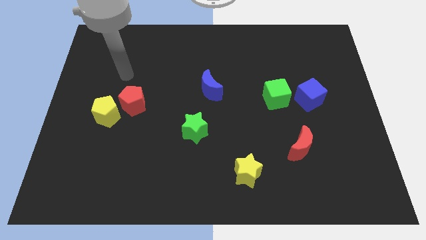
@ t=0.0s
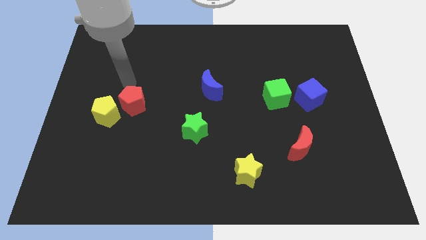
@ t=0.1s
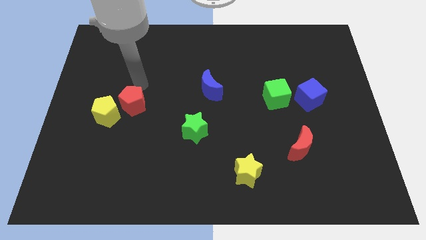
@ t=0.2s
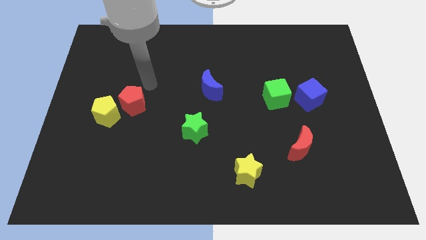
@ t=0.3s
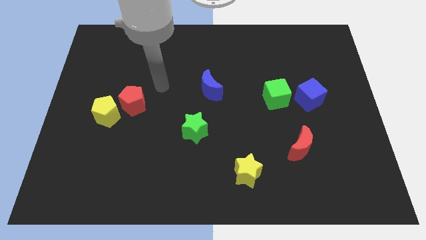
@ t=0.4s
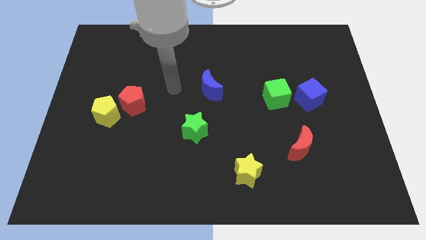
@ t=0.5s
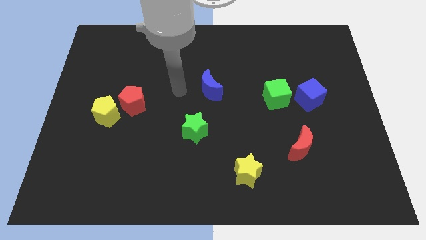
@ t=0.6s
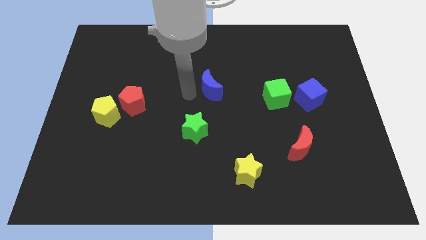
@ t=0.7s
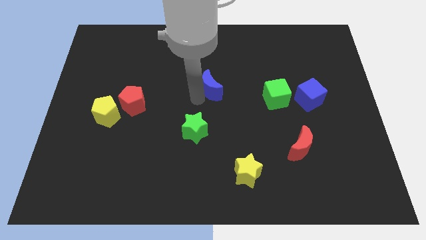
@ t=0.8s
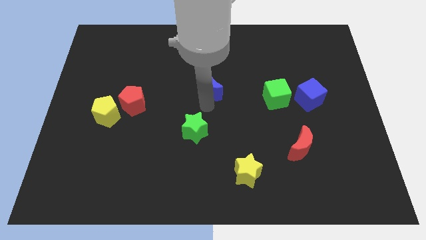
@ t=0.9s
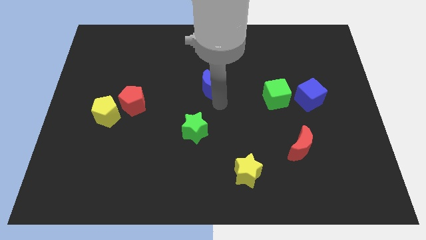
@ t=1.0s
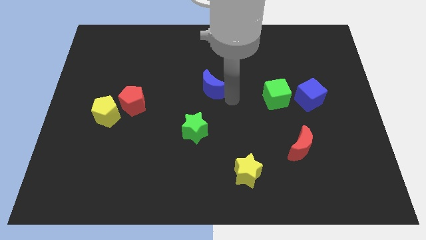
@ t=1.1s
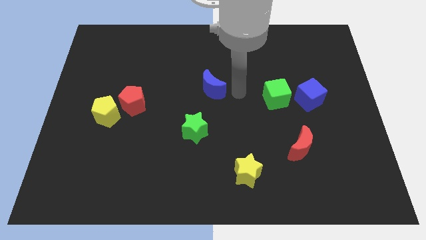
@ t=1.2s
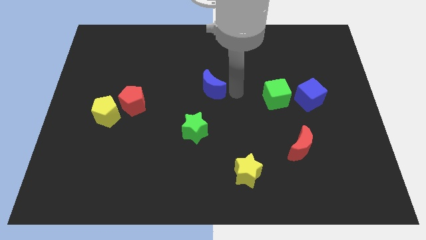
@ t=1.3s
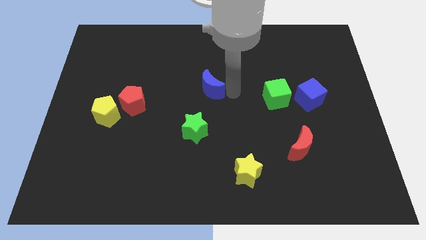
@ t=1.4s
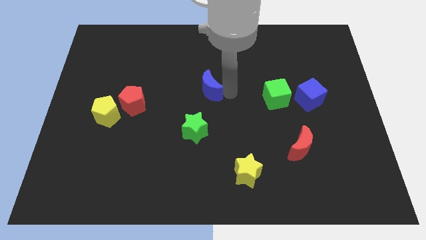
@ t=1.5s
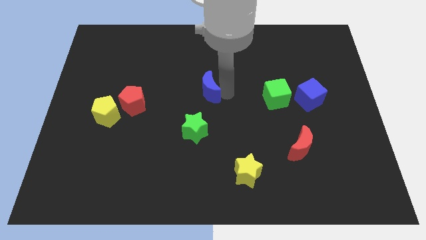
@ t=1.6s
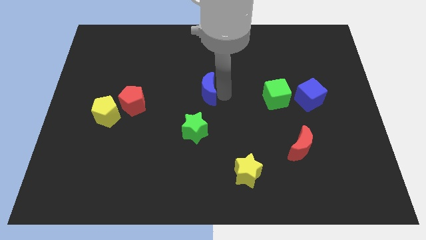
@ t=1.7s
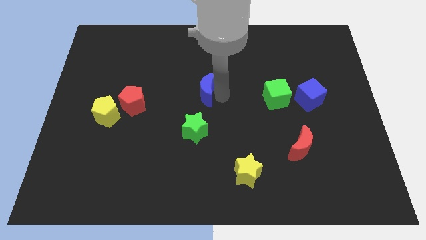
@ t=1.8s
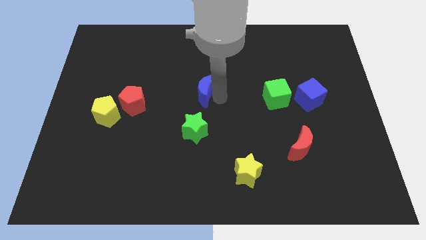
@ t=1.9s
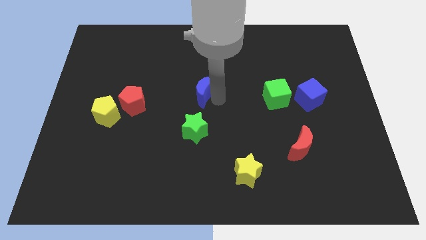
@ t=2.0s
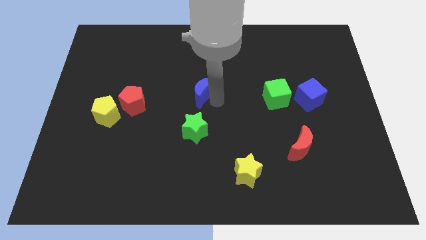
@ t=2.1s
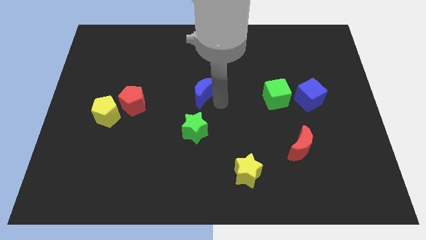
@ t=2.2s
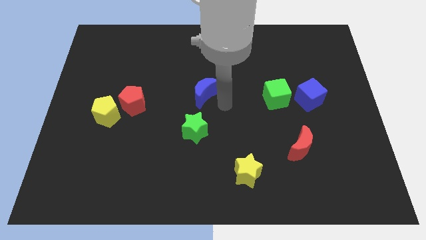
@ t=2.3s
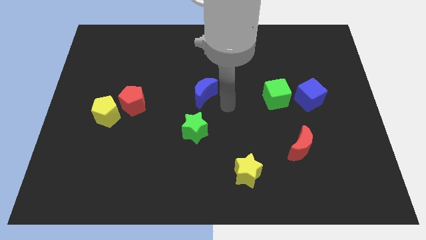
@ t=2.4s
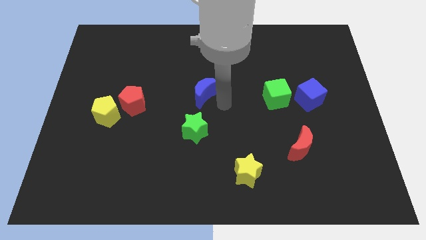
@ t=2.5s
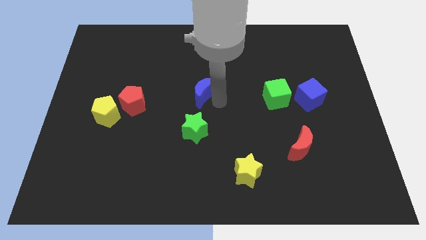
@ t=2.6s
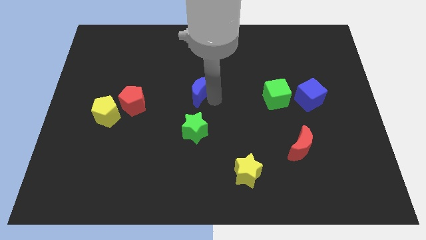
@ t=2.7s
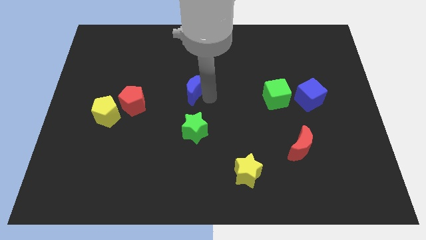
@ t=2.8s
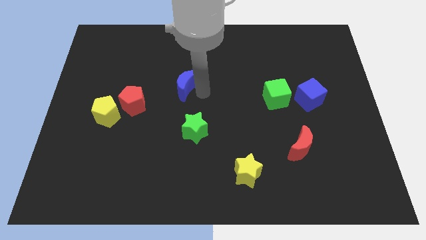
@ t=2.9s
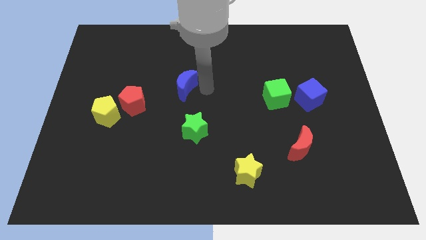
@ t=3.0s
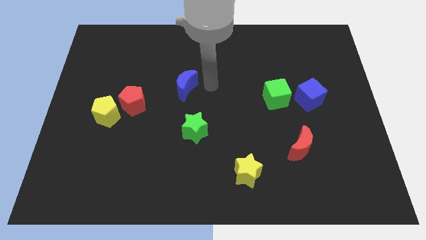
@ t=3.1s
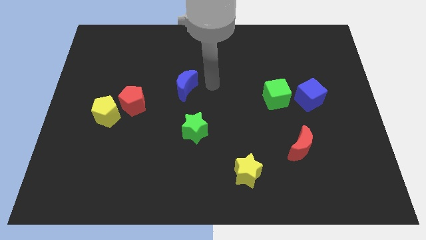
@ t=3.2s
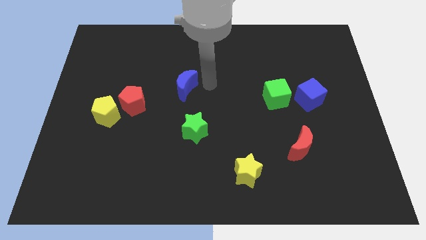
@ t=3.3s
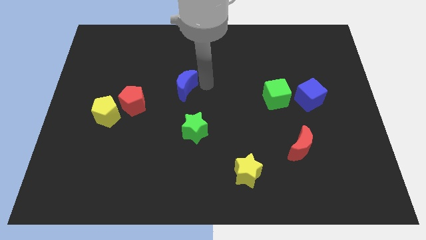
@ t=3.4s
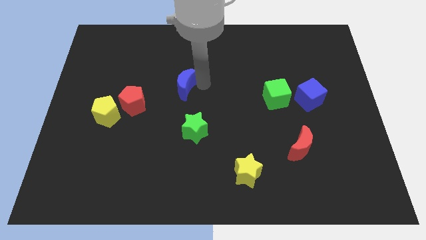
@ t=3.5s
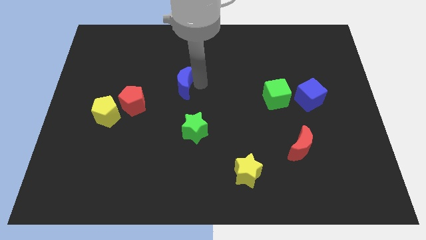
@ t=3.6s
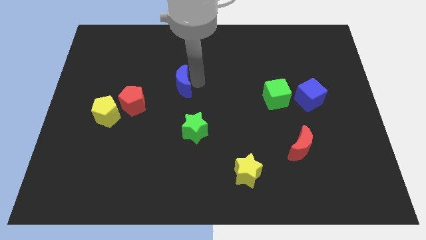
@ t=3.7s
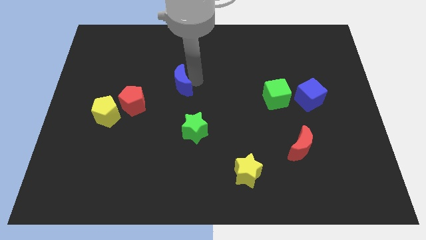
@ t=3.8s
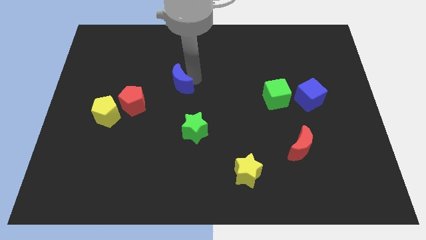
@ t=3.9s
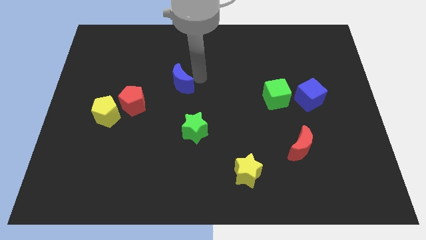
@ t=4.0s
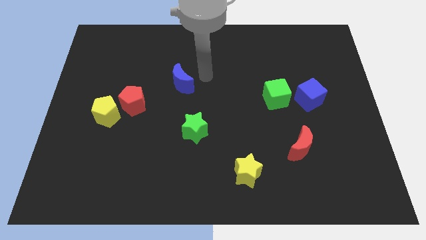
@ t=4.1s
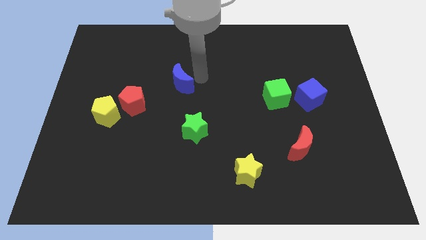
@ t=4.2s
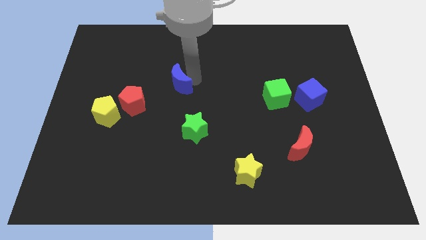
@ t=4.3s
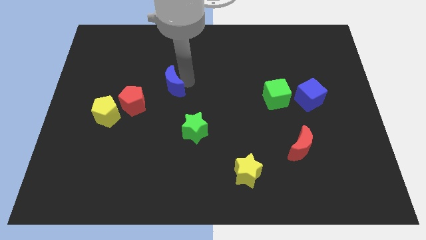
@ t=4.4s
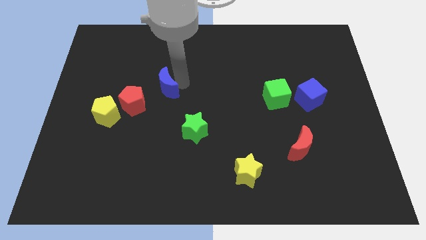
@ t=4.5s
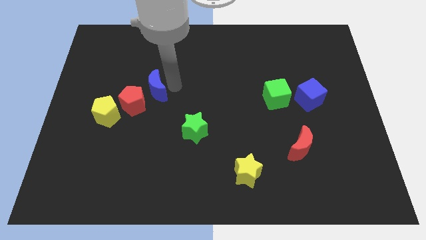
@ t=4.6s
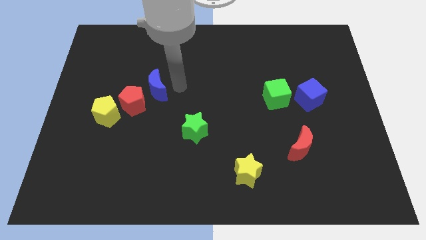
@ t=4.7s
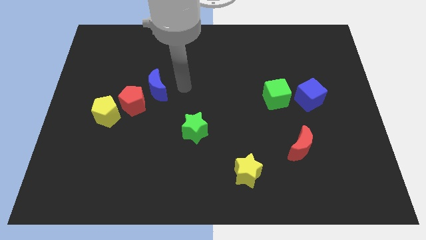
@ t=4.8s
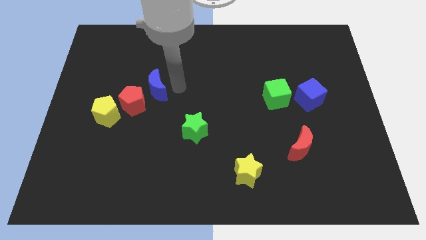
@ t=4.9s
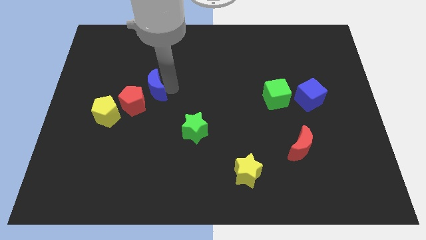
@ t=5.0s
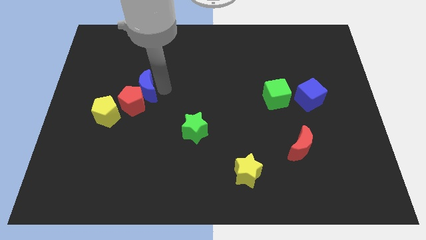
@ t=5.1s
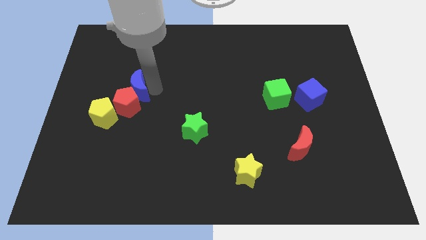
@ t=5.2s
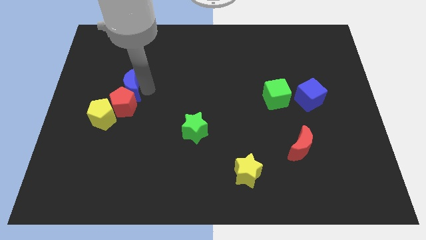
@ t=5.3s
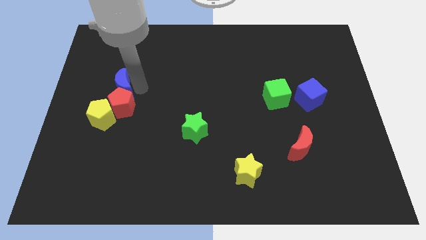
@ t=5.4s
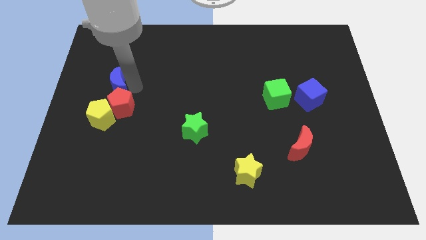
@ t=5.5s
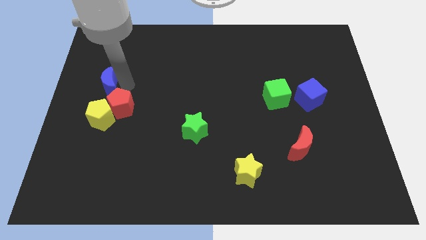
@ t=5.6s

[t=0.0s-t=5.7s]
push the blue moon to the left side

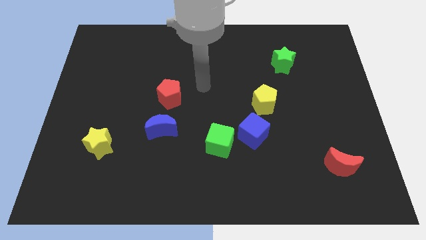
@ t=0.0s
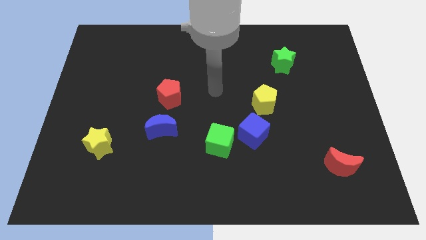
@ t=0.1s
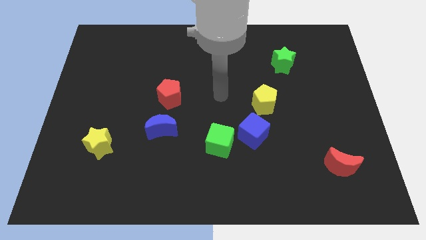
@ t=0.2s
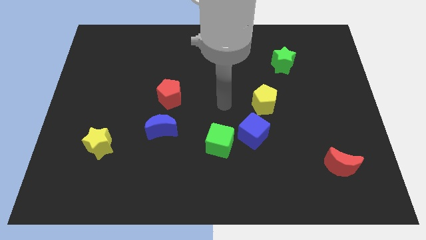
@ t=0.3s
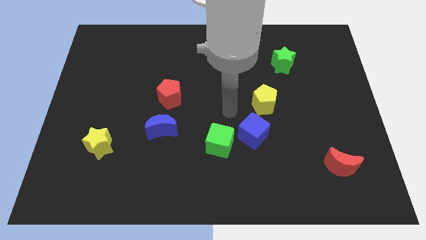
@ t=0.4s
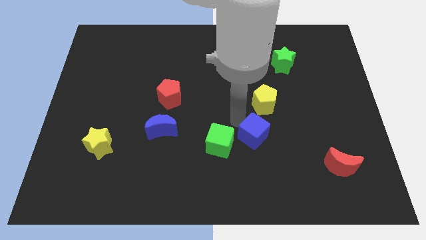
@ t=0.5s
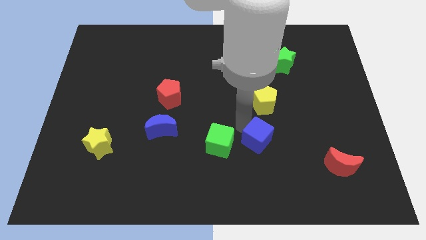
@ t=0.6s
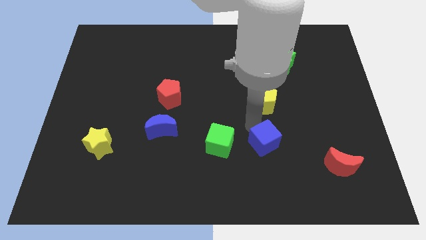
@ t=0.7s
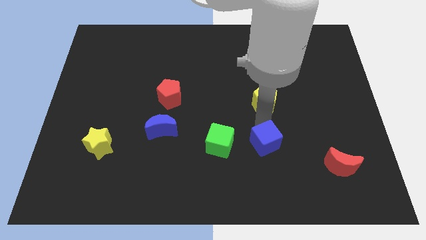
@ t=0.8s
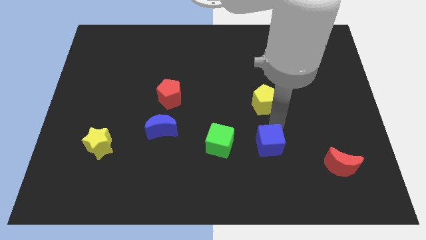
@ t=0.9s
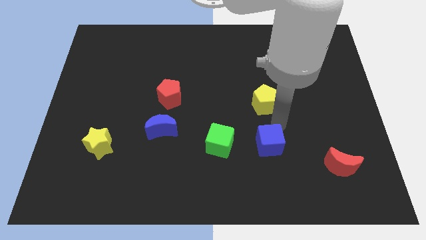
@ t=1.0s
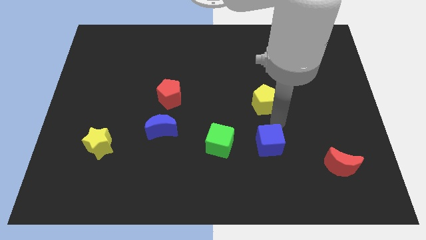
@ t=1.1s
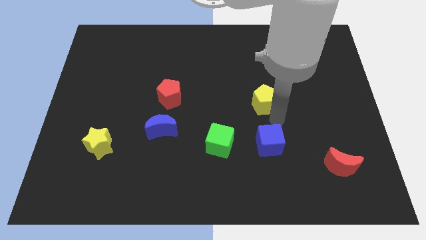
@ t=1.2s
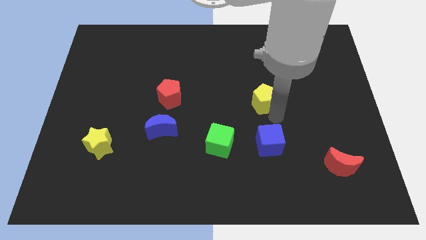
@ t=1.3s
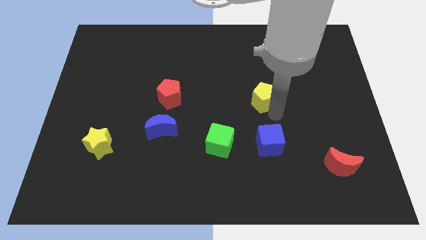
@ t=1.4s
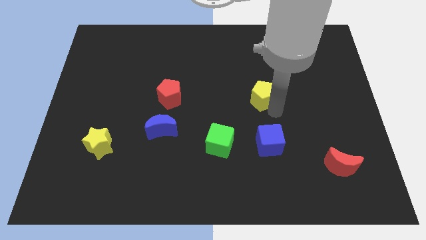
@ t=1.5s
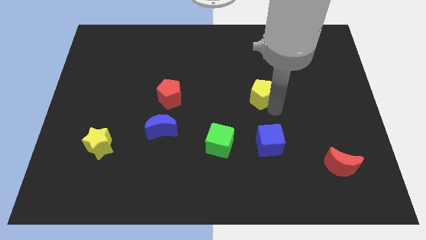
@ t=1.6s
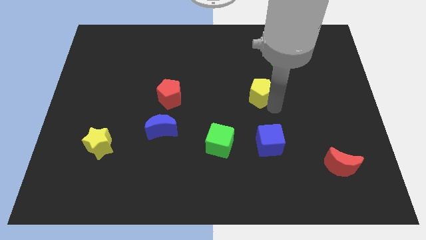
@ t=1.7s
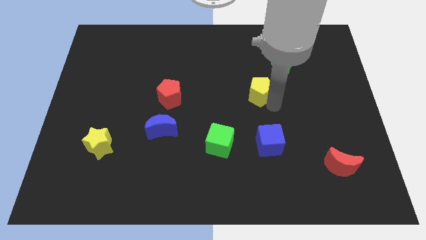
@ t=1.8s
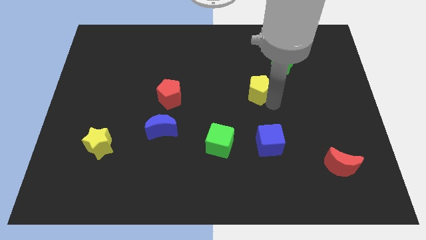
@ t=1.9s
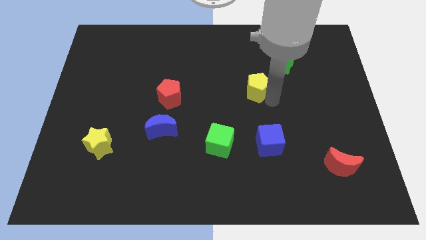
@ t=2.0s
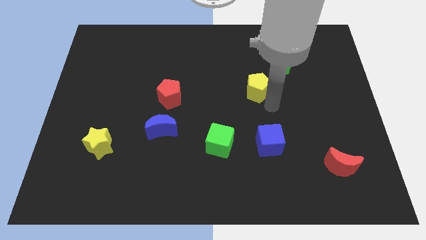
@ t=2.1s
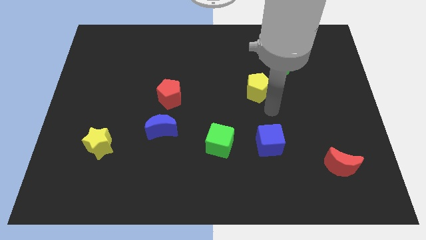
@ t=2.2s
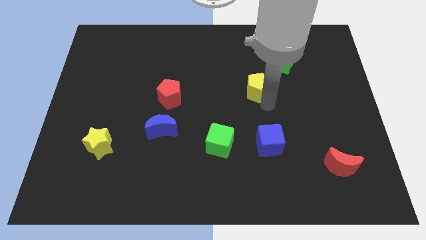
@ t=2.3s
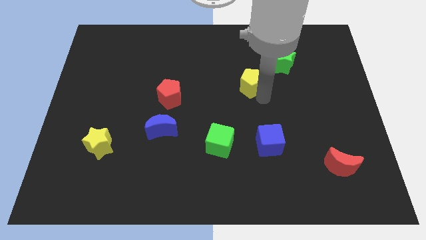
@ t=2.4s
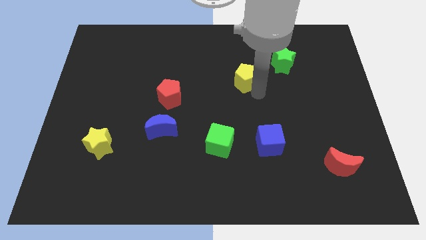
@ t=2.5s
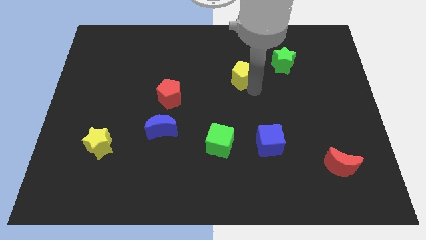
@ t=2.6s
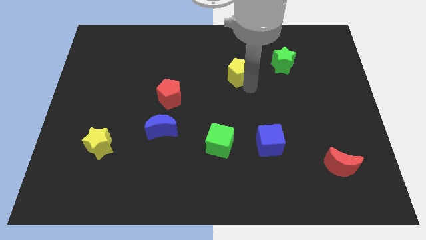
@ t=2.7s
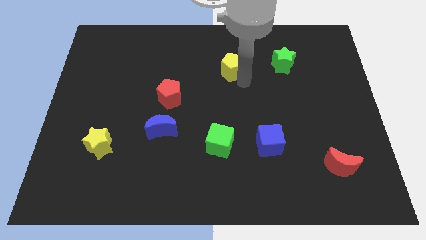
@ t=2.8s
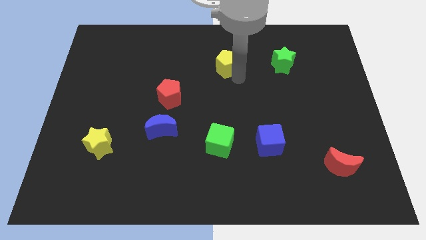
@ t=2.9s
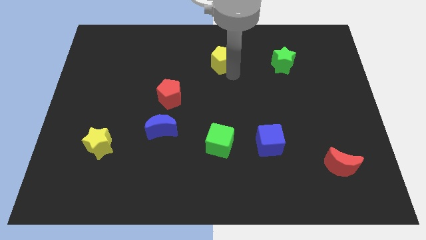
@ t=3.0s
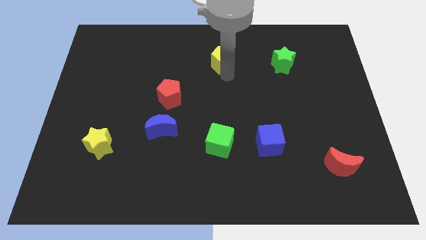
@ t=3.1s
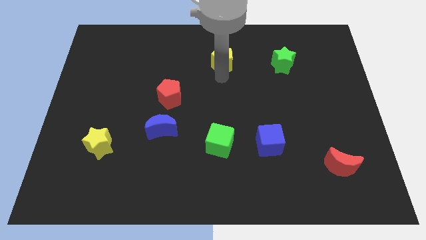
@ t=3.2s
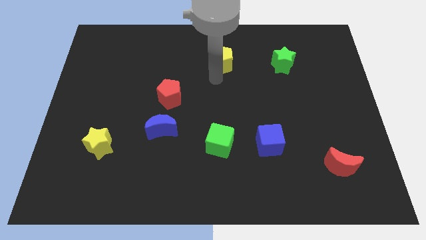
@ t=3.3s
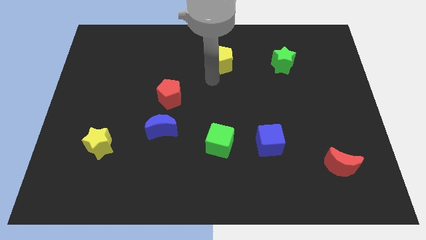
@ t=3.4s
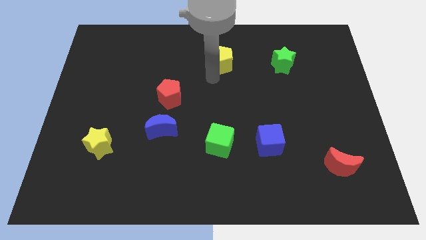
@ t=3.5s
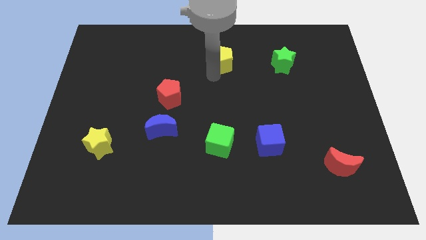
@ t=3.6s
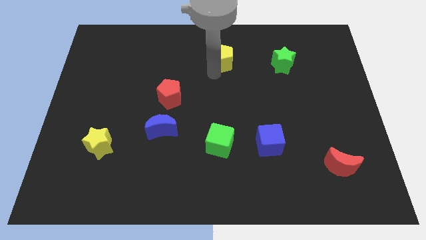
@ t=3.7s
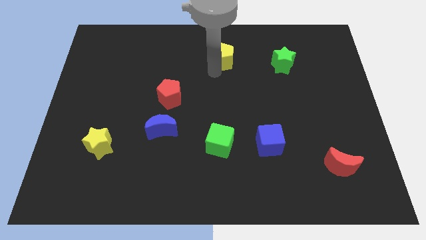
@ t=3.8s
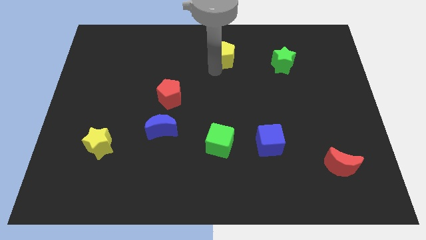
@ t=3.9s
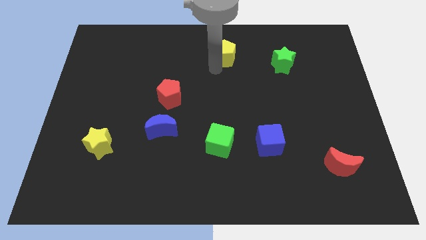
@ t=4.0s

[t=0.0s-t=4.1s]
put the yellow pentagon to the towards your base
